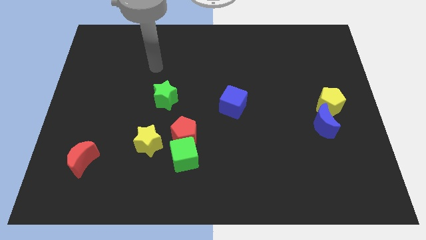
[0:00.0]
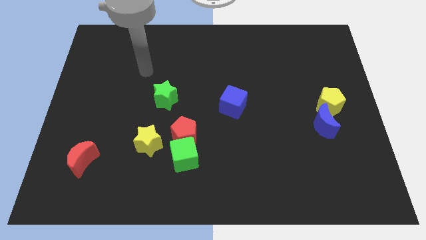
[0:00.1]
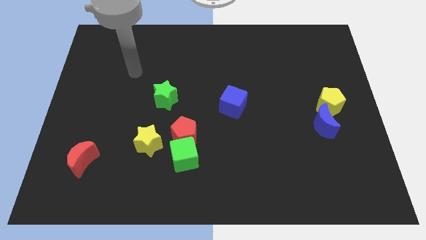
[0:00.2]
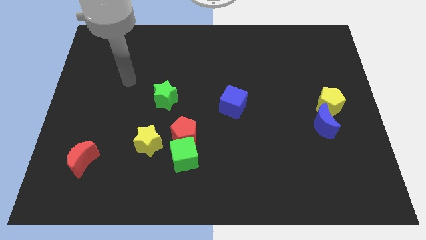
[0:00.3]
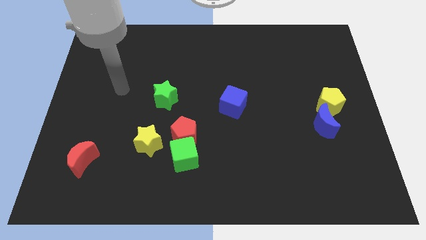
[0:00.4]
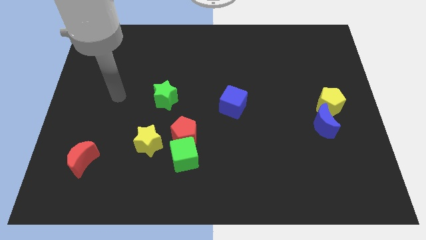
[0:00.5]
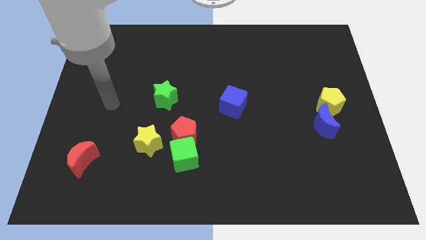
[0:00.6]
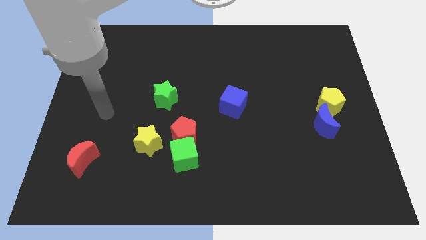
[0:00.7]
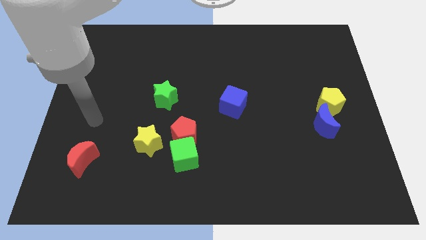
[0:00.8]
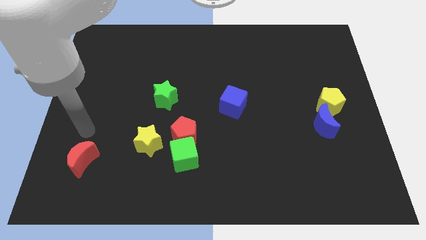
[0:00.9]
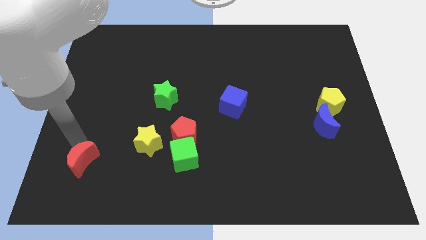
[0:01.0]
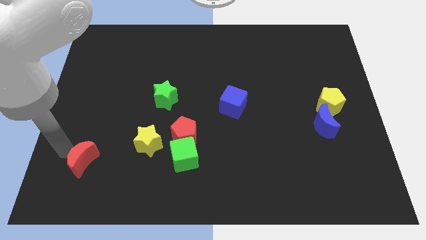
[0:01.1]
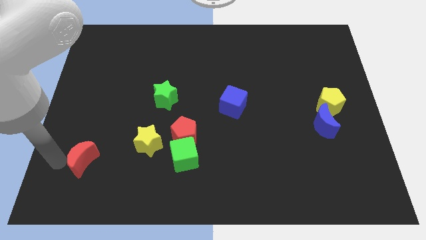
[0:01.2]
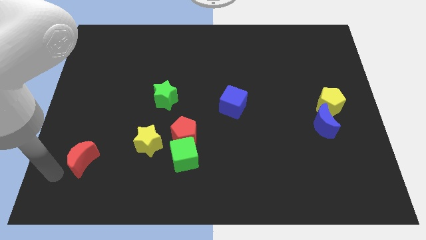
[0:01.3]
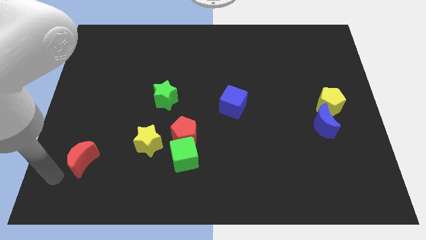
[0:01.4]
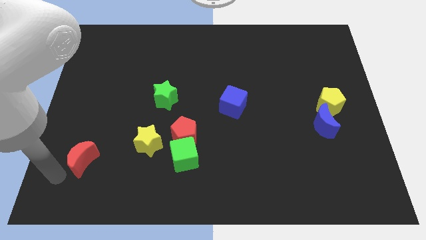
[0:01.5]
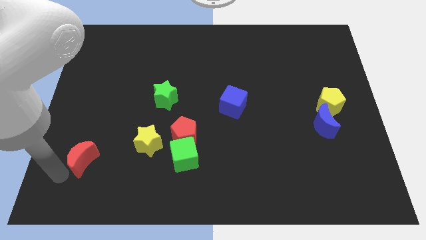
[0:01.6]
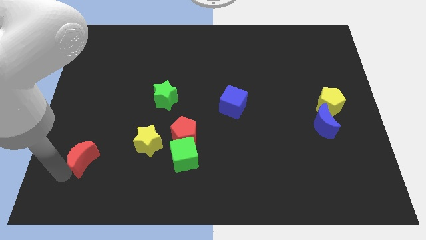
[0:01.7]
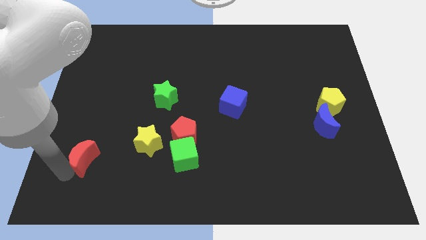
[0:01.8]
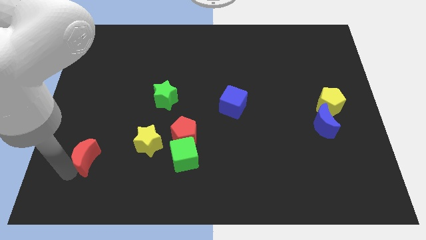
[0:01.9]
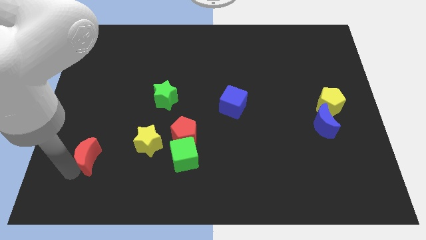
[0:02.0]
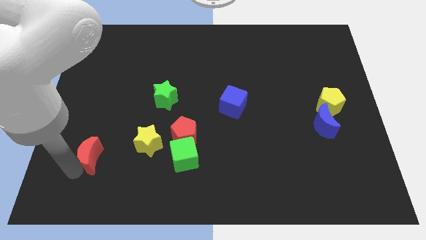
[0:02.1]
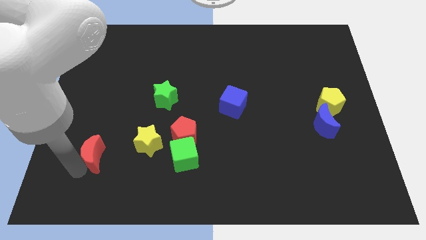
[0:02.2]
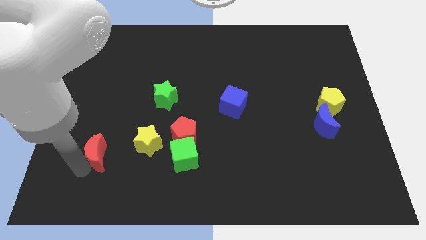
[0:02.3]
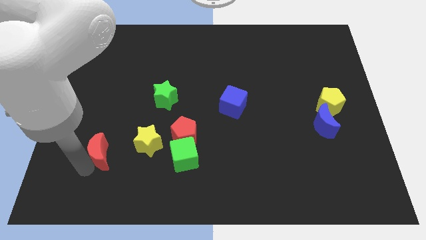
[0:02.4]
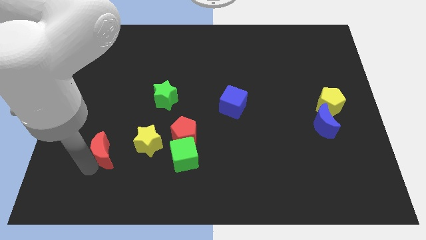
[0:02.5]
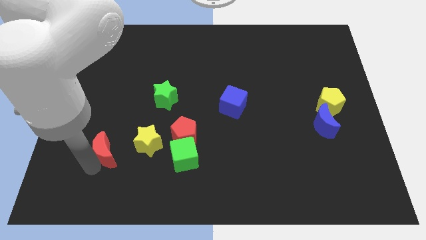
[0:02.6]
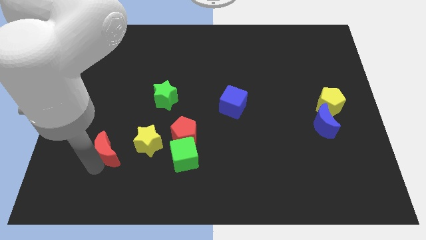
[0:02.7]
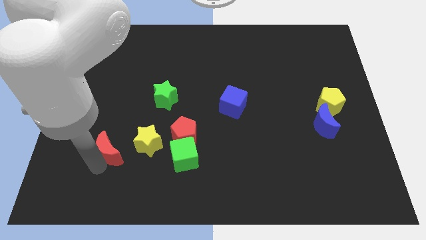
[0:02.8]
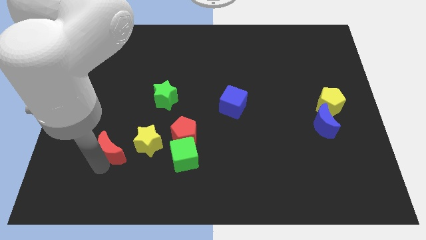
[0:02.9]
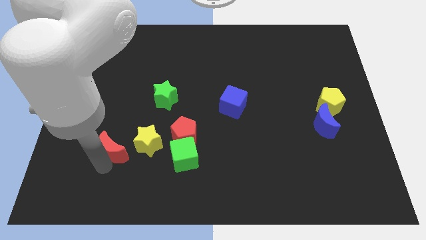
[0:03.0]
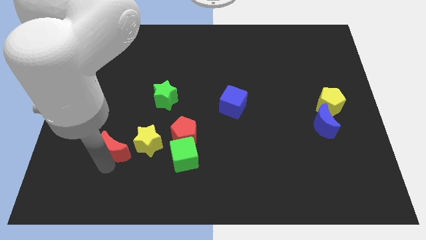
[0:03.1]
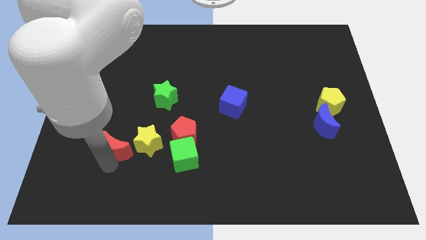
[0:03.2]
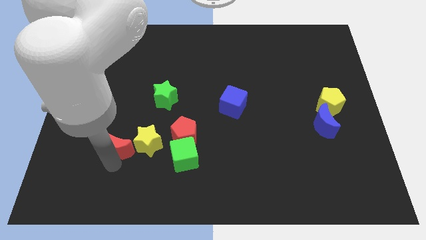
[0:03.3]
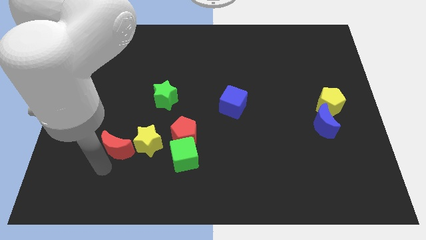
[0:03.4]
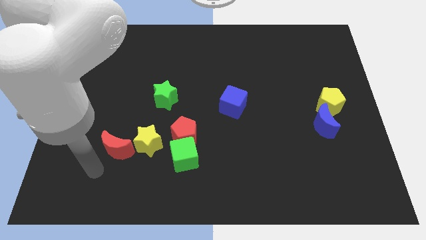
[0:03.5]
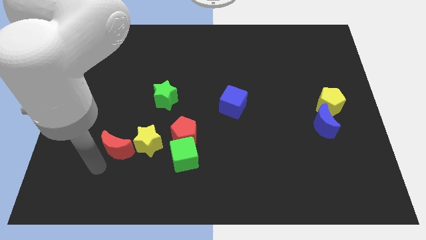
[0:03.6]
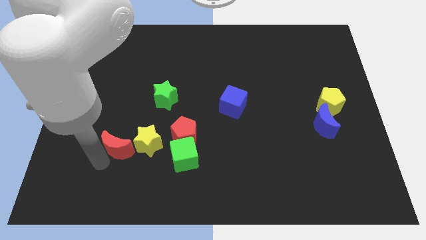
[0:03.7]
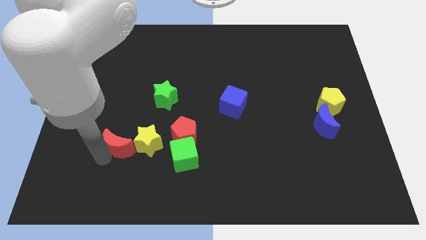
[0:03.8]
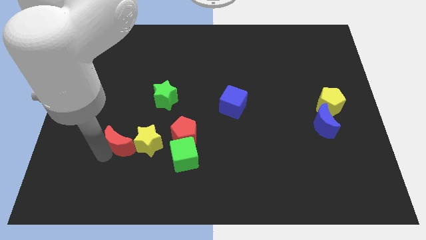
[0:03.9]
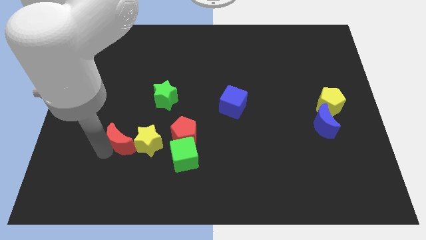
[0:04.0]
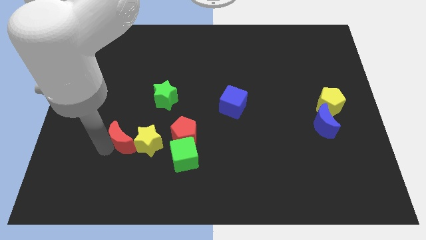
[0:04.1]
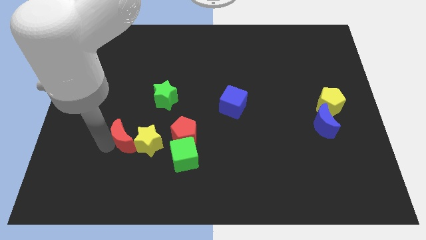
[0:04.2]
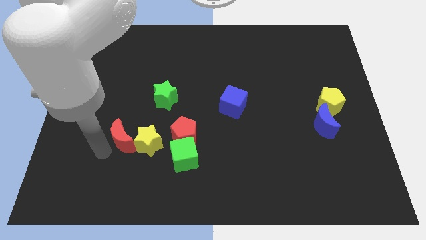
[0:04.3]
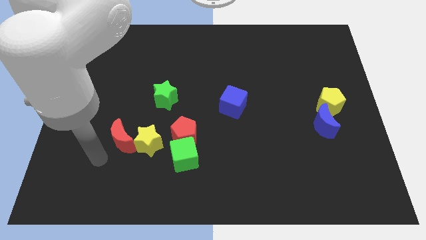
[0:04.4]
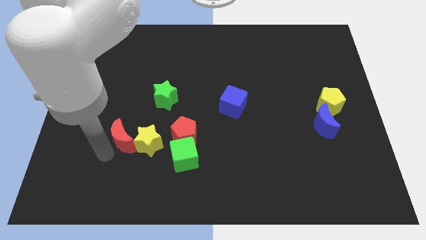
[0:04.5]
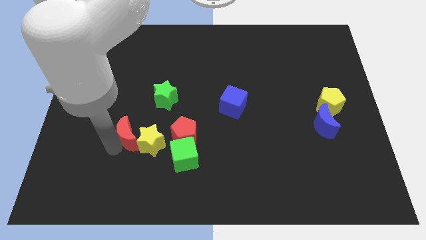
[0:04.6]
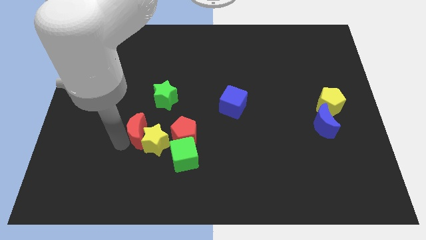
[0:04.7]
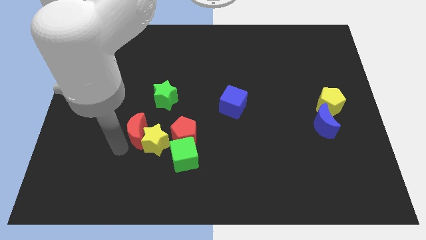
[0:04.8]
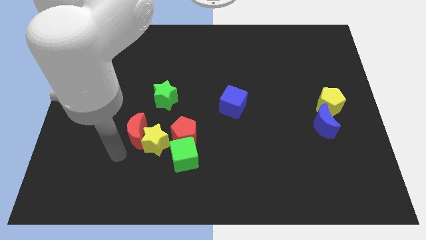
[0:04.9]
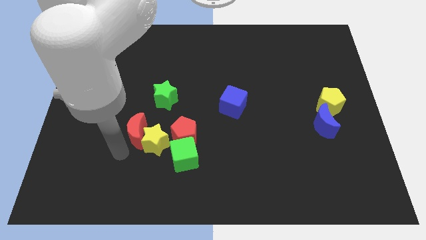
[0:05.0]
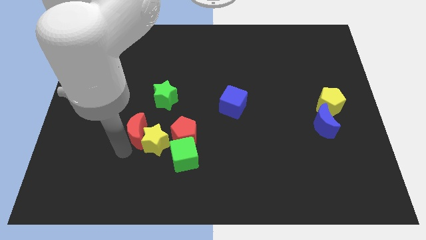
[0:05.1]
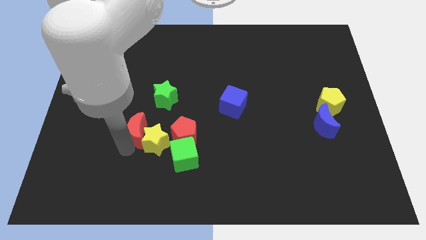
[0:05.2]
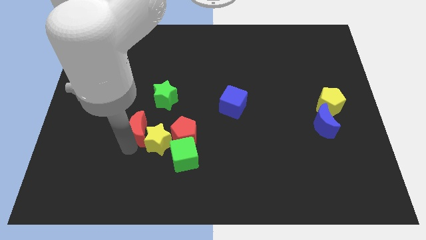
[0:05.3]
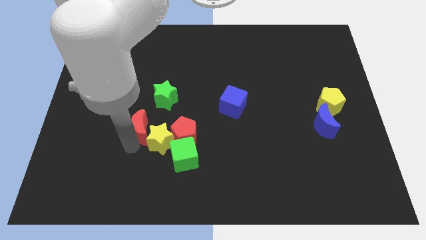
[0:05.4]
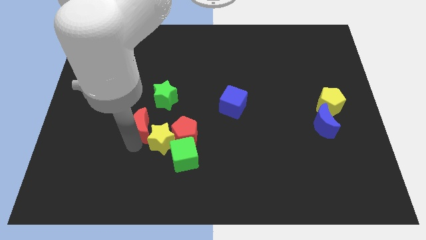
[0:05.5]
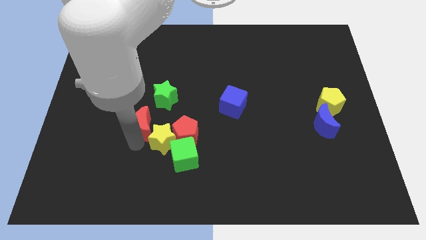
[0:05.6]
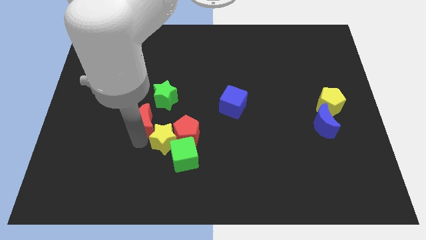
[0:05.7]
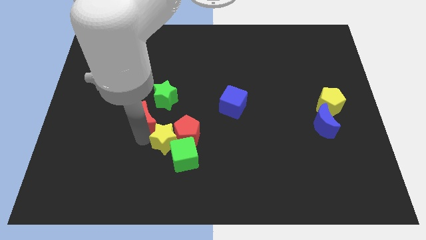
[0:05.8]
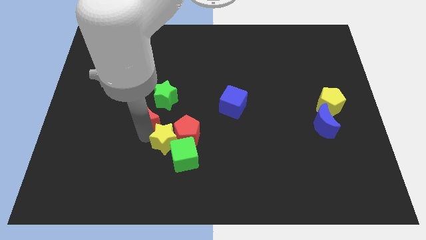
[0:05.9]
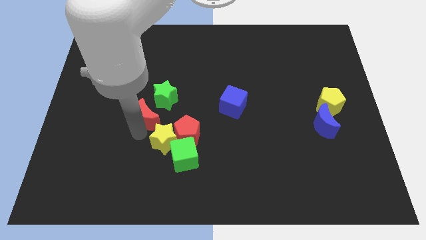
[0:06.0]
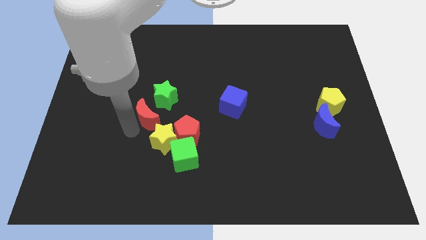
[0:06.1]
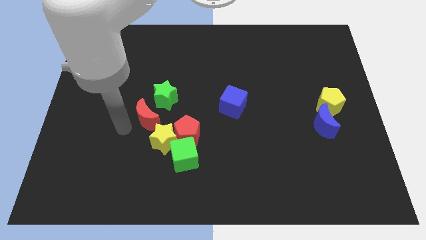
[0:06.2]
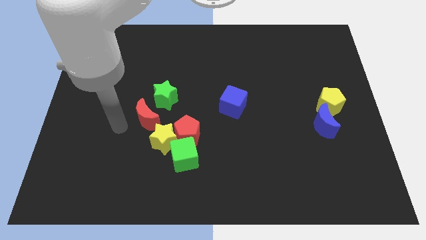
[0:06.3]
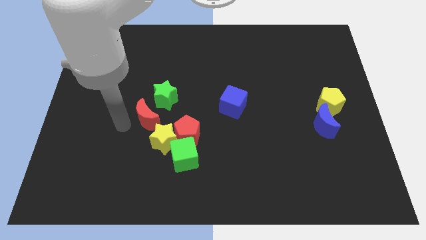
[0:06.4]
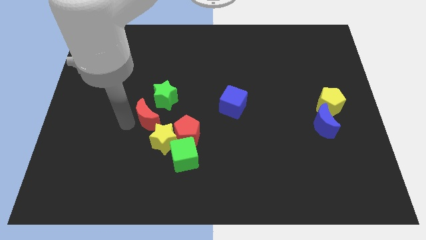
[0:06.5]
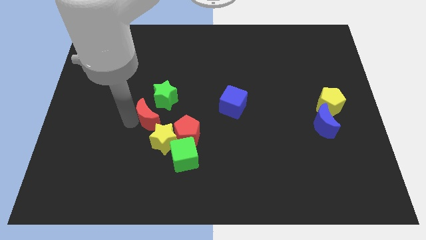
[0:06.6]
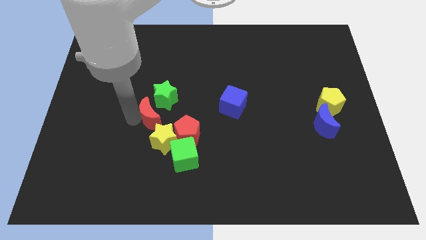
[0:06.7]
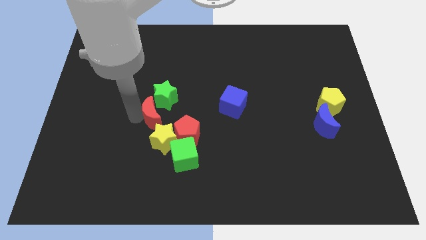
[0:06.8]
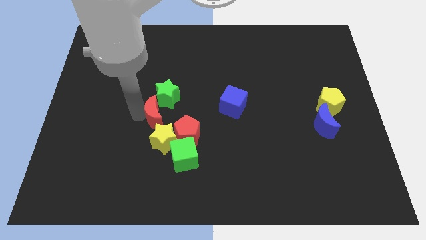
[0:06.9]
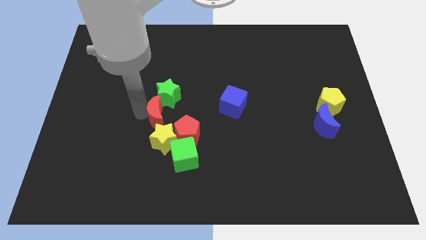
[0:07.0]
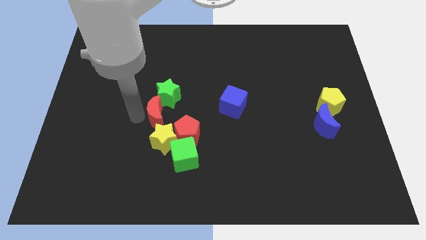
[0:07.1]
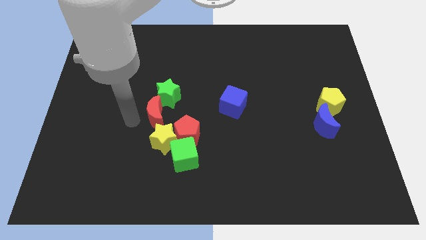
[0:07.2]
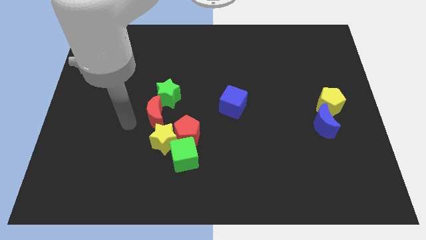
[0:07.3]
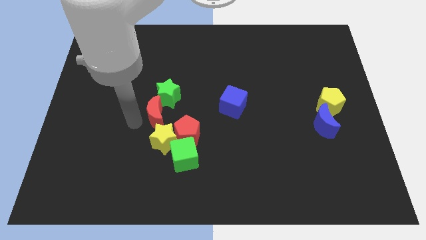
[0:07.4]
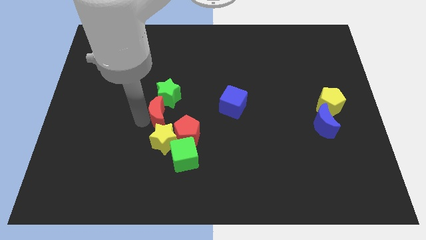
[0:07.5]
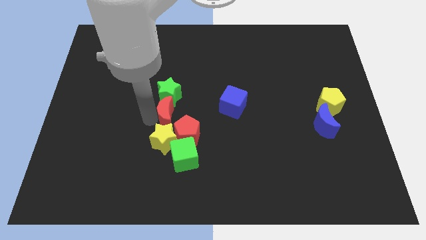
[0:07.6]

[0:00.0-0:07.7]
move the red moon to the center
